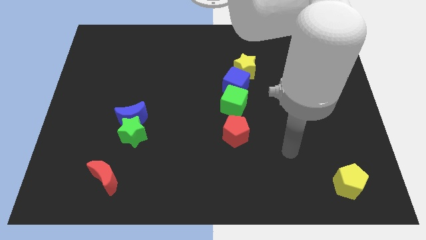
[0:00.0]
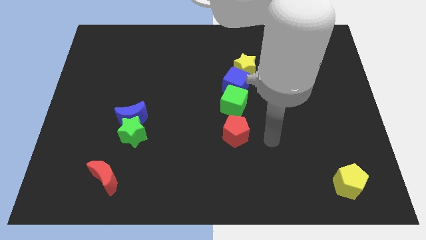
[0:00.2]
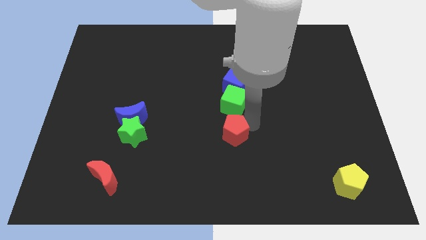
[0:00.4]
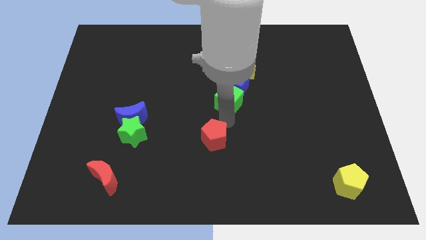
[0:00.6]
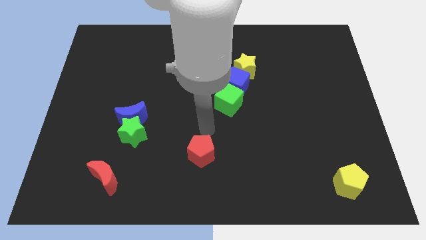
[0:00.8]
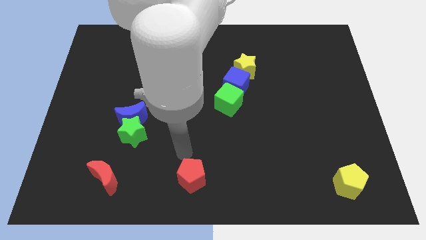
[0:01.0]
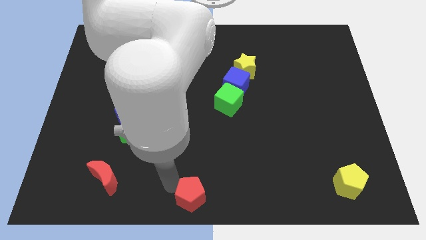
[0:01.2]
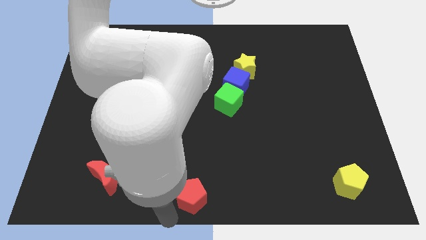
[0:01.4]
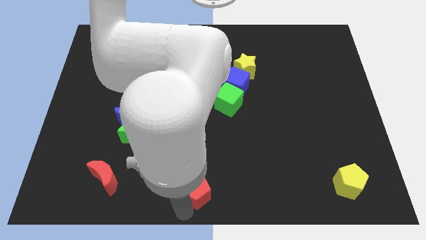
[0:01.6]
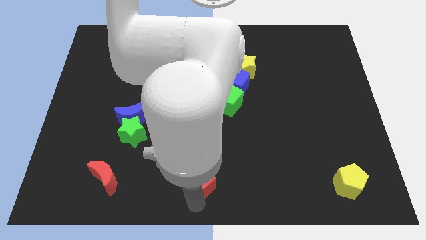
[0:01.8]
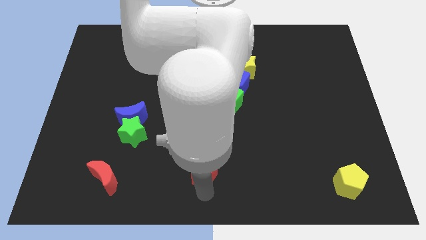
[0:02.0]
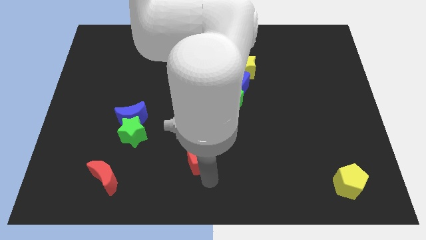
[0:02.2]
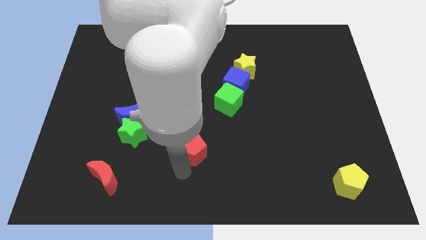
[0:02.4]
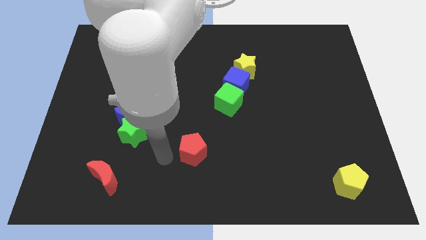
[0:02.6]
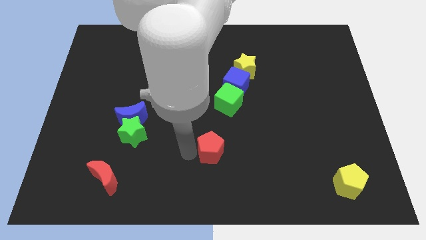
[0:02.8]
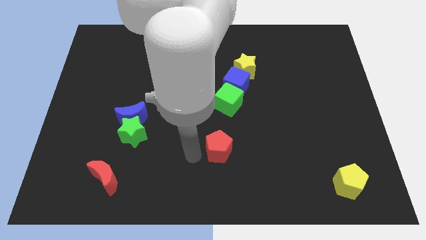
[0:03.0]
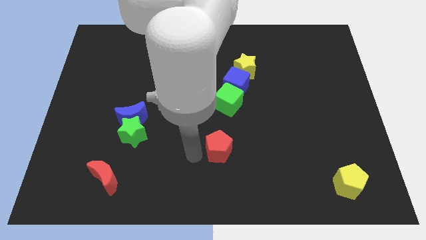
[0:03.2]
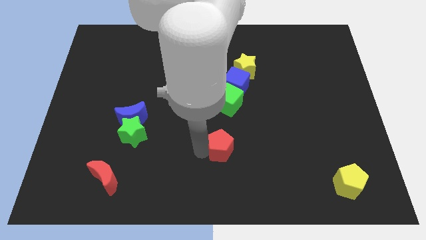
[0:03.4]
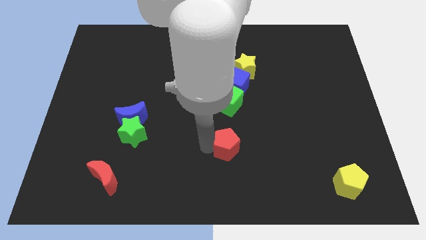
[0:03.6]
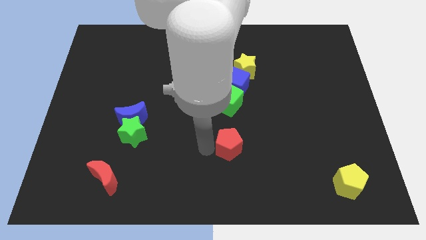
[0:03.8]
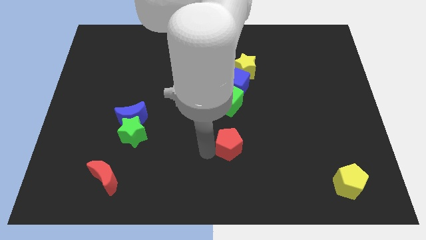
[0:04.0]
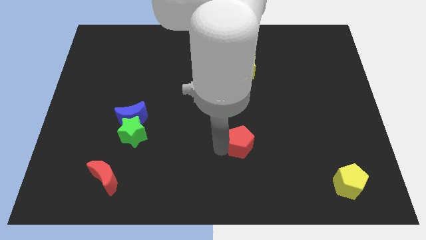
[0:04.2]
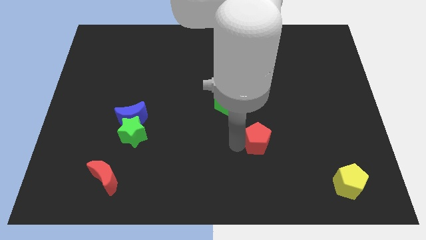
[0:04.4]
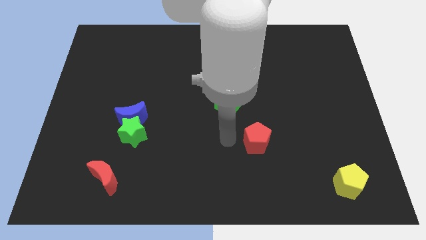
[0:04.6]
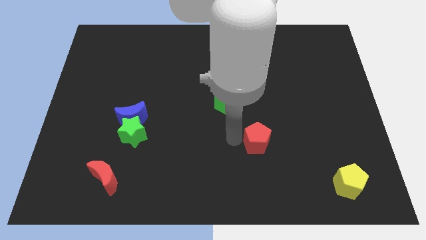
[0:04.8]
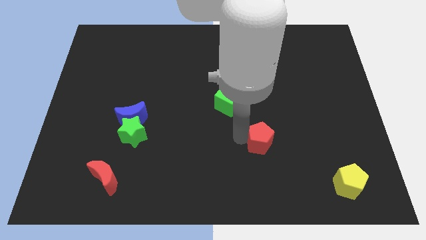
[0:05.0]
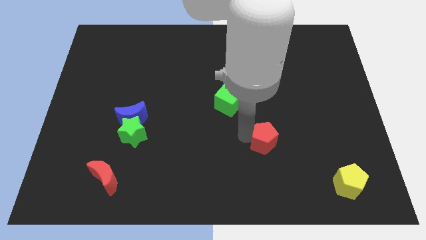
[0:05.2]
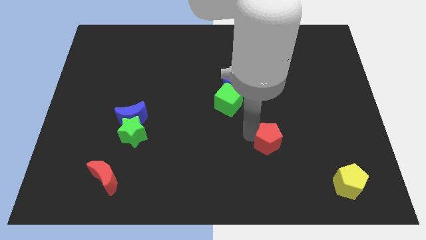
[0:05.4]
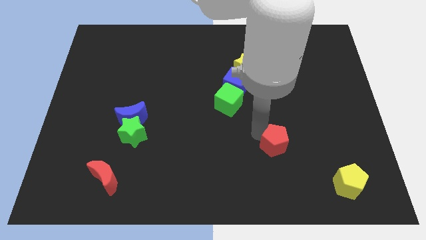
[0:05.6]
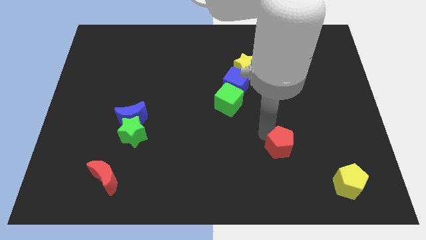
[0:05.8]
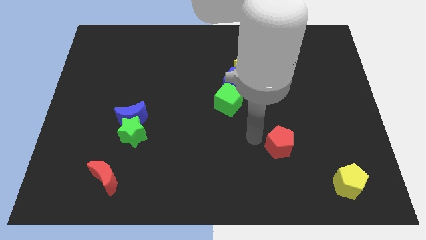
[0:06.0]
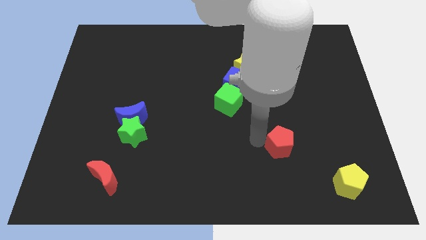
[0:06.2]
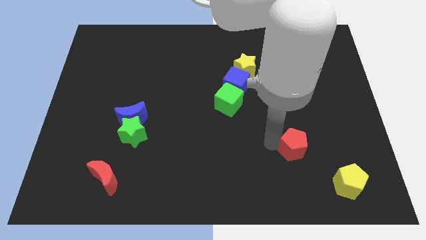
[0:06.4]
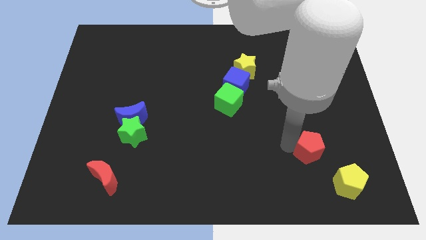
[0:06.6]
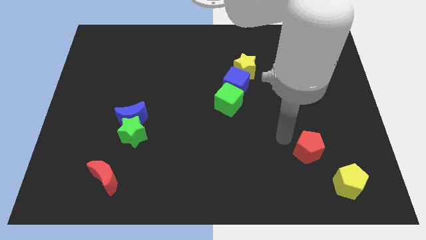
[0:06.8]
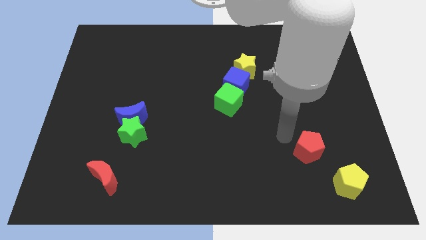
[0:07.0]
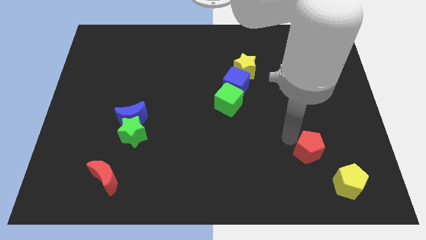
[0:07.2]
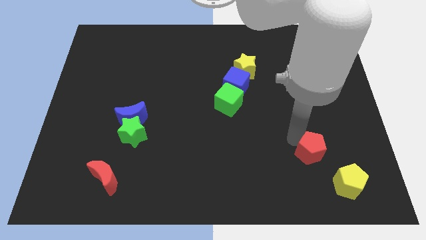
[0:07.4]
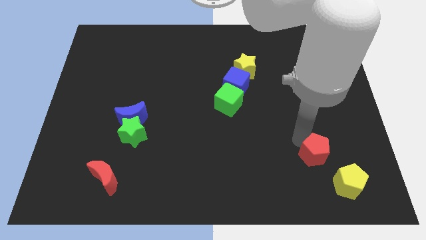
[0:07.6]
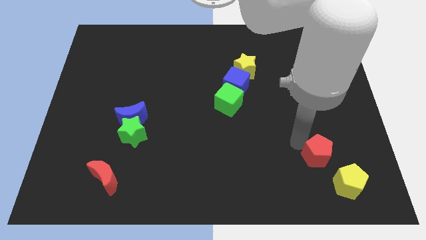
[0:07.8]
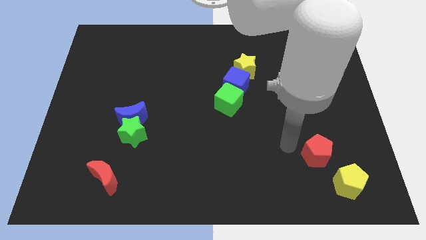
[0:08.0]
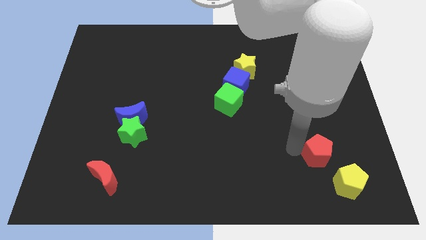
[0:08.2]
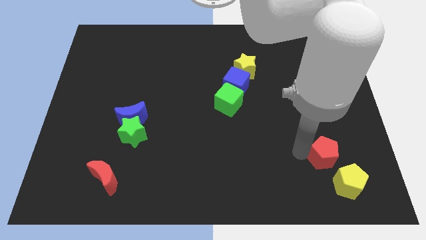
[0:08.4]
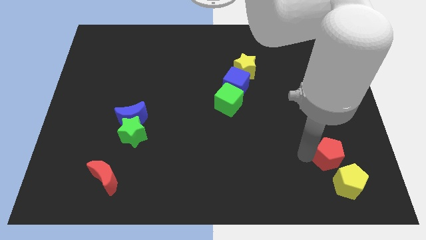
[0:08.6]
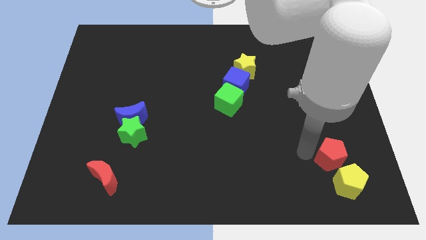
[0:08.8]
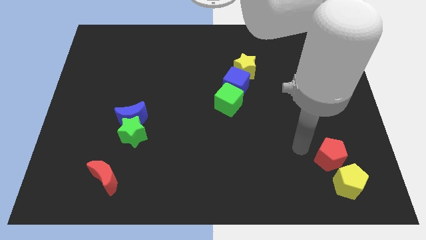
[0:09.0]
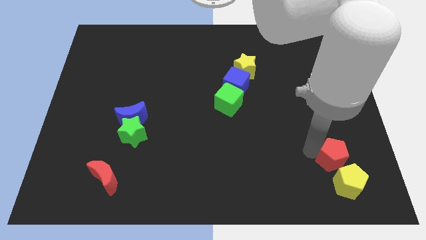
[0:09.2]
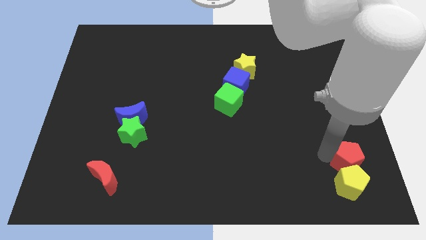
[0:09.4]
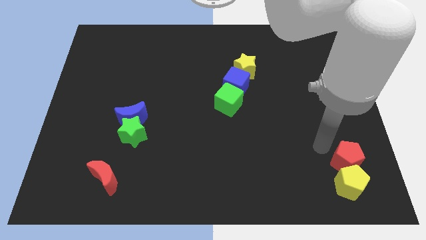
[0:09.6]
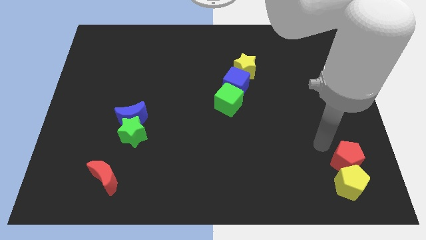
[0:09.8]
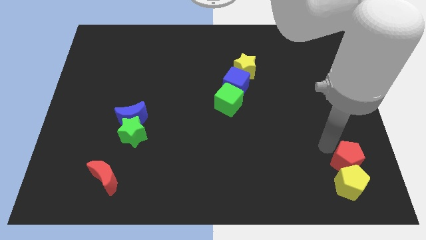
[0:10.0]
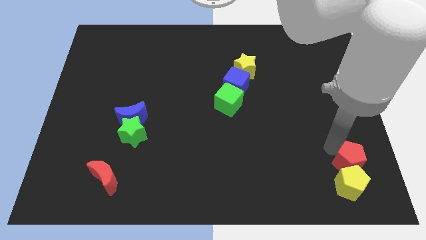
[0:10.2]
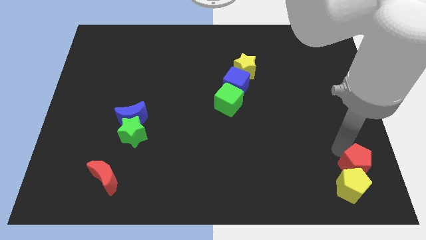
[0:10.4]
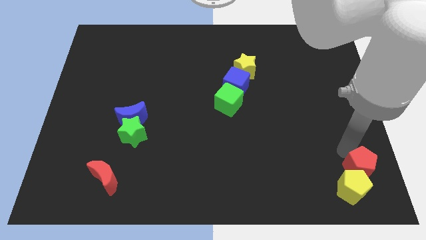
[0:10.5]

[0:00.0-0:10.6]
push the red pentagon to the bottom right

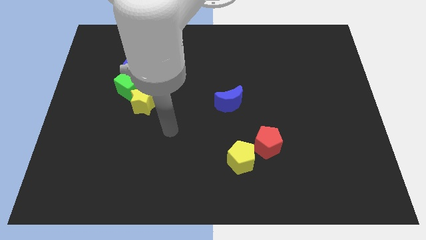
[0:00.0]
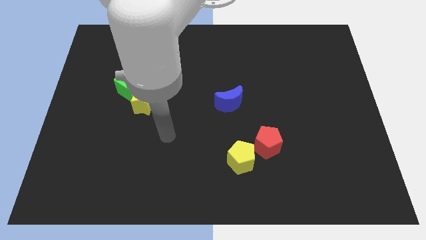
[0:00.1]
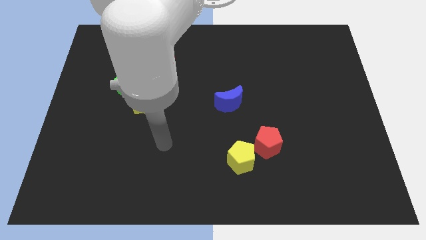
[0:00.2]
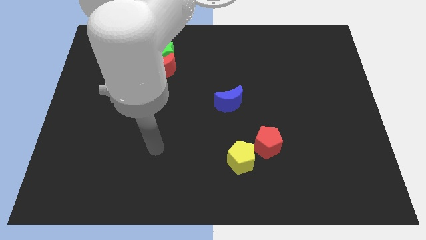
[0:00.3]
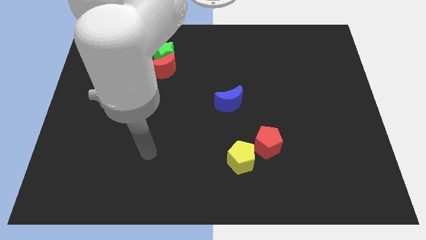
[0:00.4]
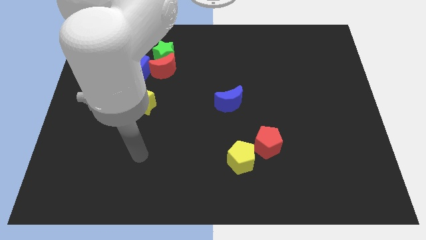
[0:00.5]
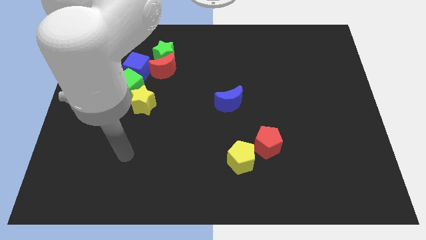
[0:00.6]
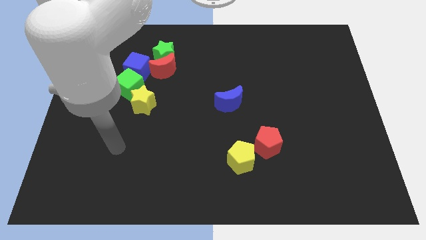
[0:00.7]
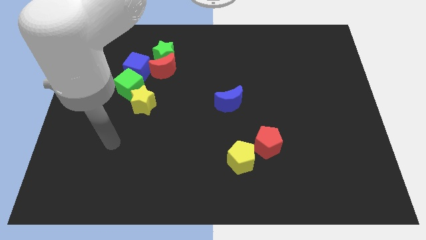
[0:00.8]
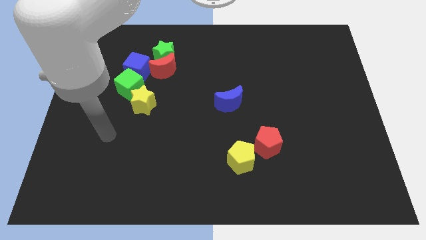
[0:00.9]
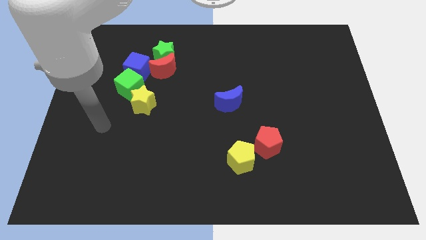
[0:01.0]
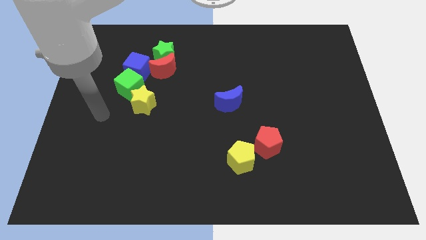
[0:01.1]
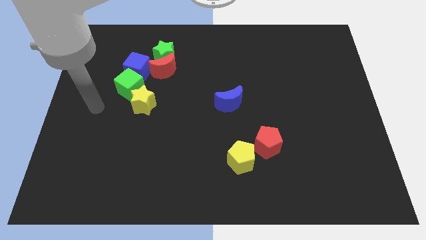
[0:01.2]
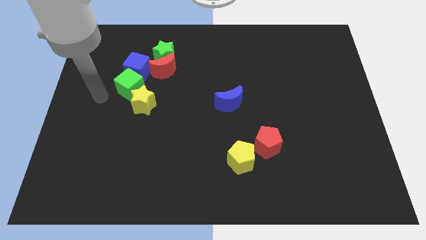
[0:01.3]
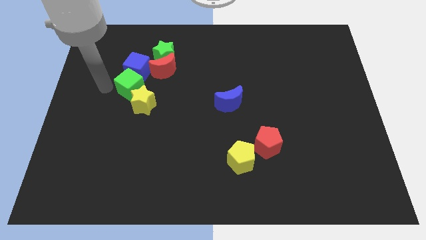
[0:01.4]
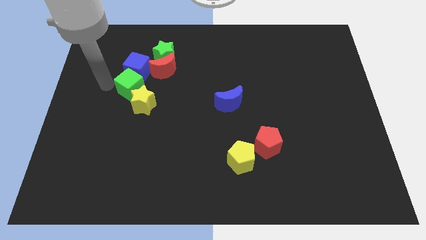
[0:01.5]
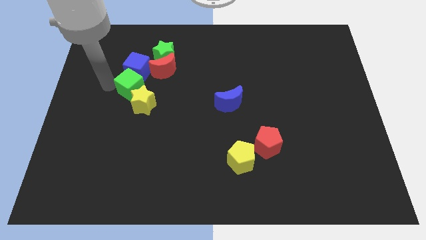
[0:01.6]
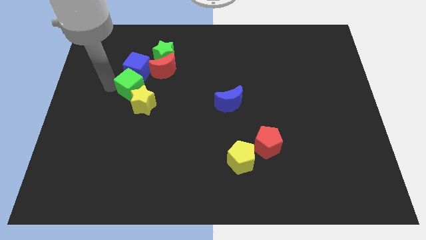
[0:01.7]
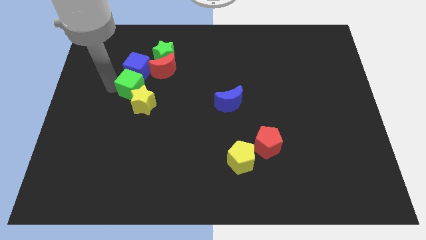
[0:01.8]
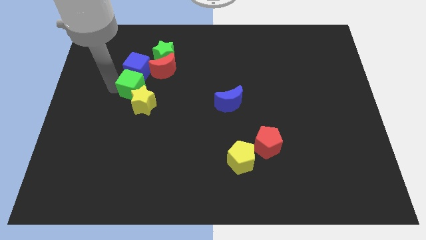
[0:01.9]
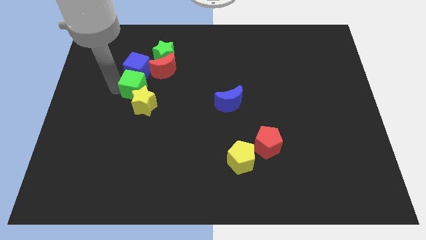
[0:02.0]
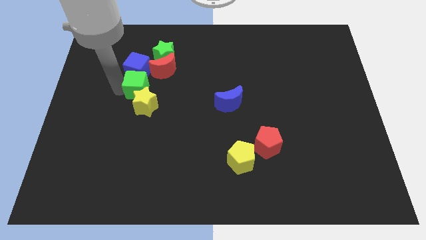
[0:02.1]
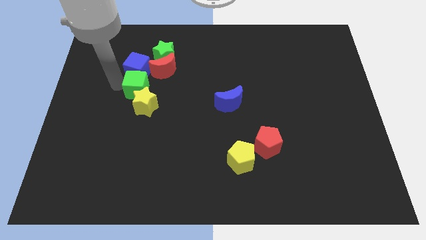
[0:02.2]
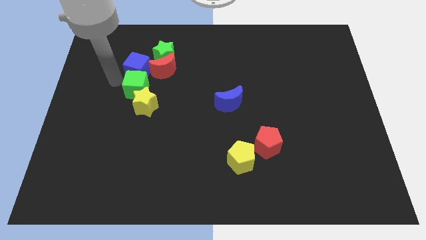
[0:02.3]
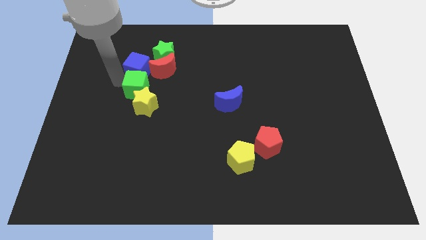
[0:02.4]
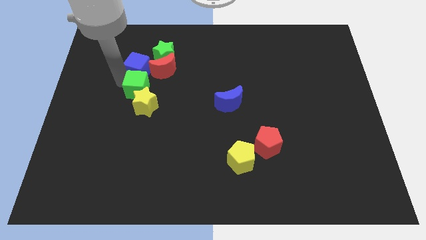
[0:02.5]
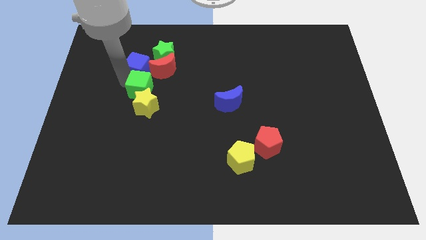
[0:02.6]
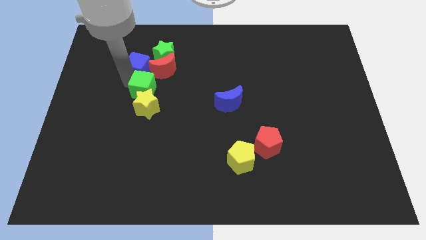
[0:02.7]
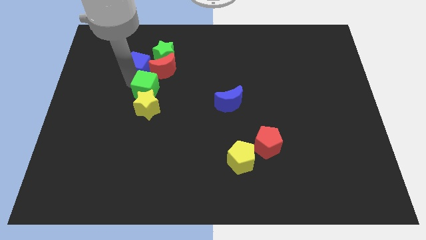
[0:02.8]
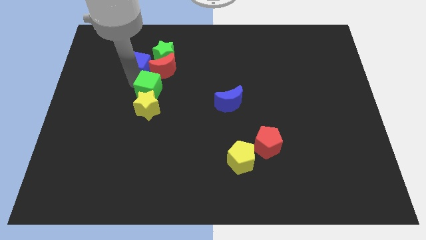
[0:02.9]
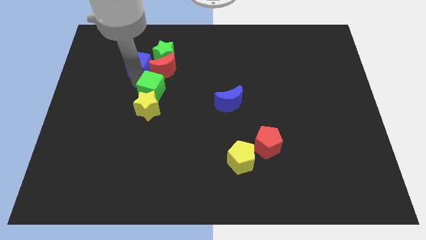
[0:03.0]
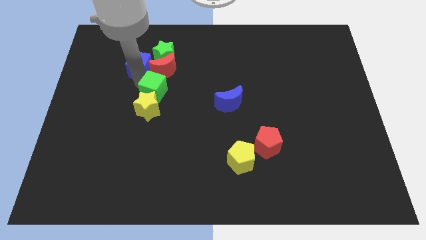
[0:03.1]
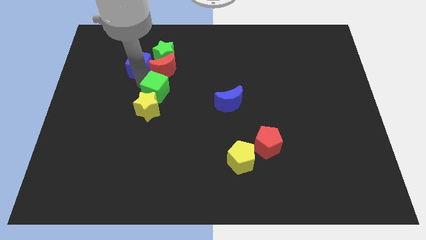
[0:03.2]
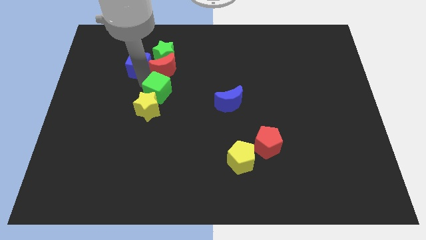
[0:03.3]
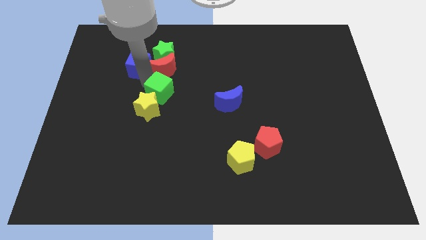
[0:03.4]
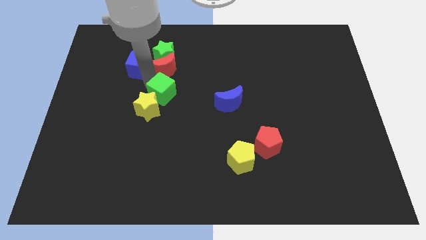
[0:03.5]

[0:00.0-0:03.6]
slide the green cube to the middle
